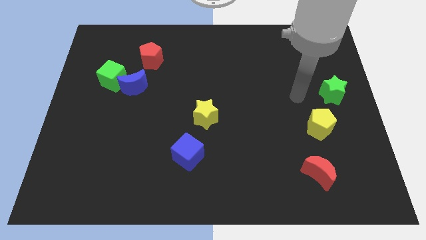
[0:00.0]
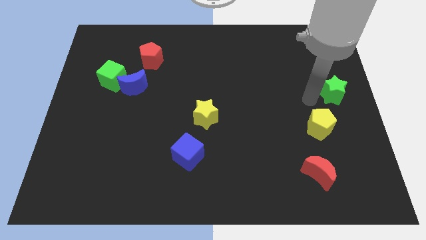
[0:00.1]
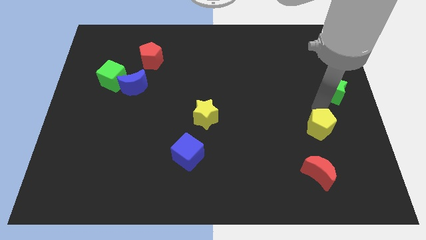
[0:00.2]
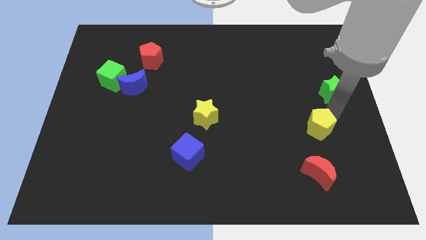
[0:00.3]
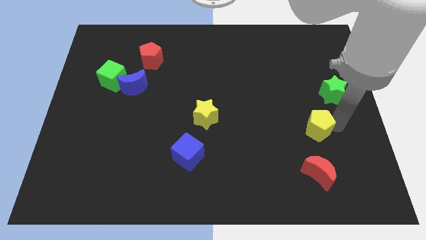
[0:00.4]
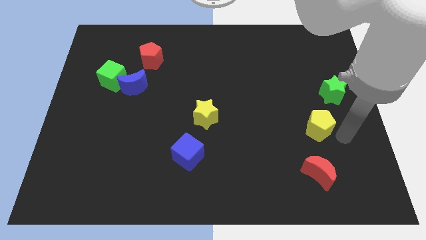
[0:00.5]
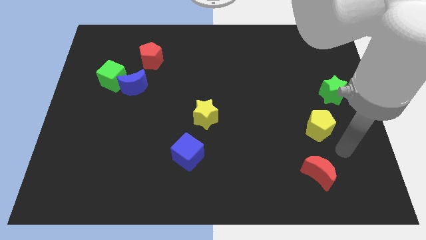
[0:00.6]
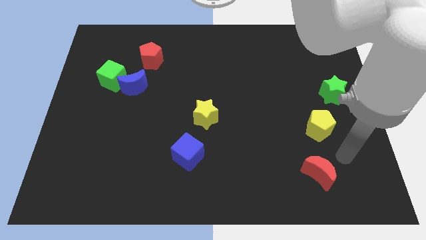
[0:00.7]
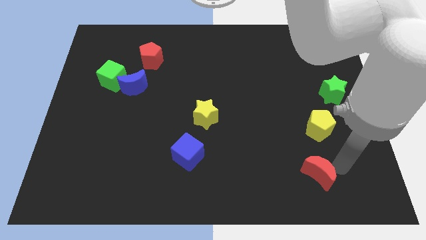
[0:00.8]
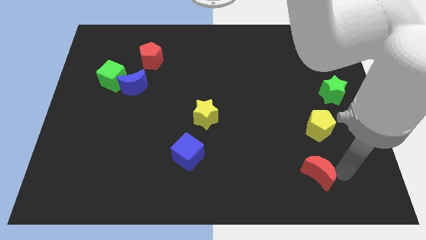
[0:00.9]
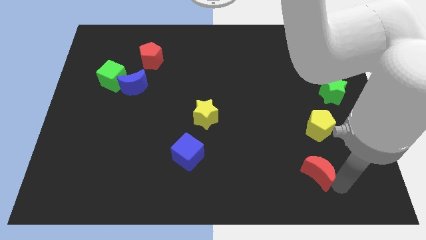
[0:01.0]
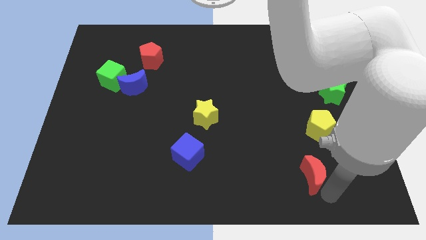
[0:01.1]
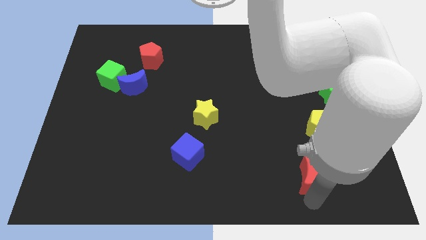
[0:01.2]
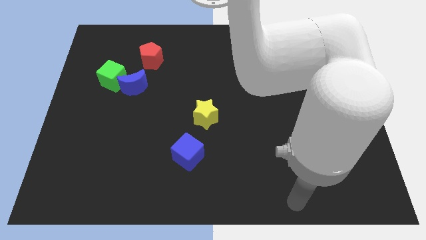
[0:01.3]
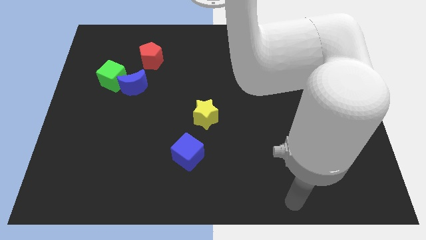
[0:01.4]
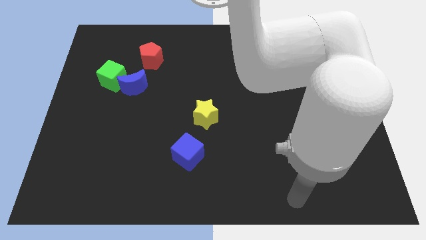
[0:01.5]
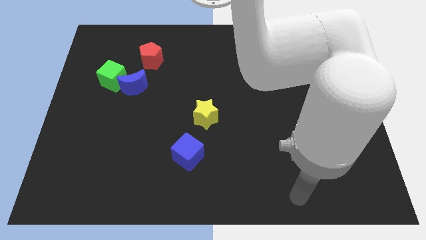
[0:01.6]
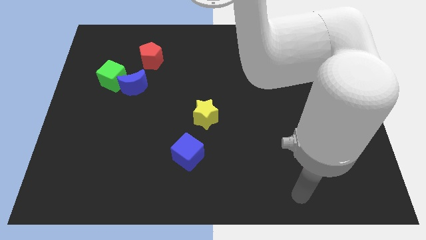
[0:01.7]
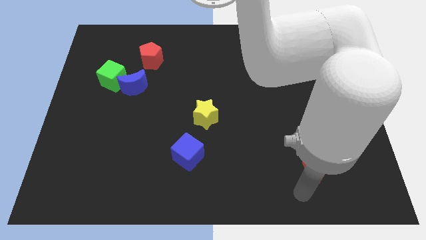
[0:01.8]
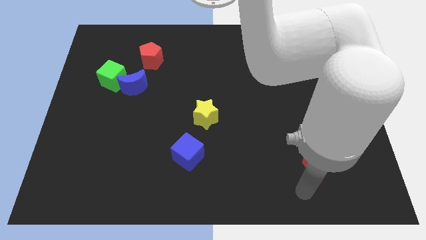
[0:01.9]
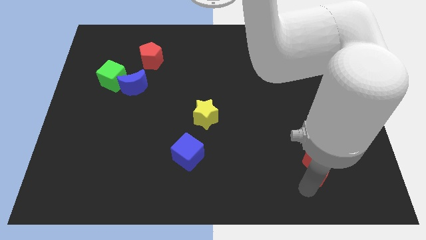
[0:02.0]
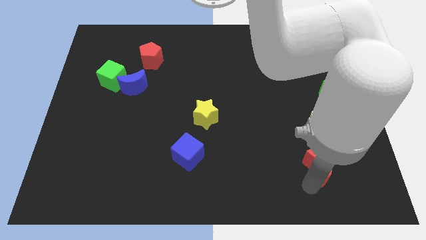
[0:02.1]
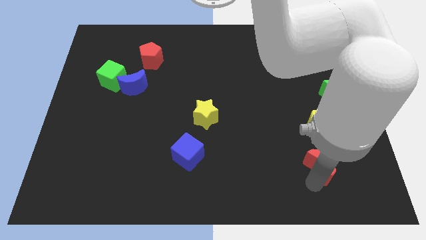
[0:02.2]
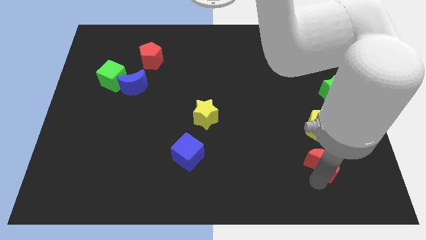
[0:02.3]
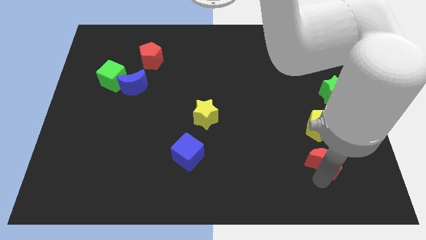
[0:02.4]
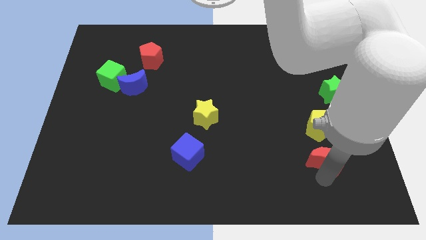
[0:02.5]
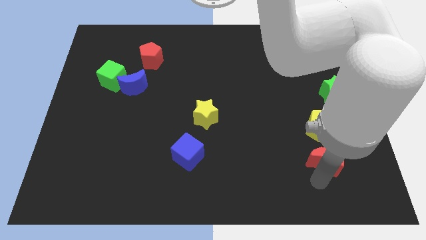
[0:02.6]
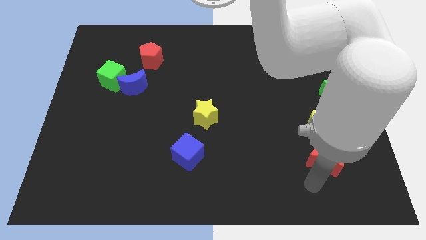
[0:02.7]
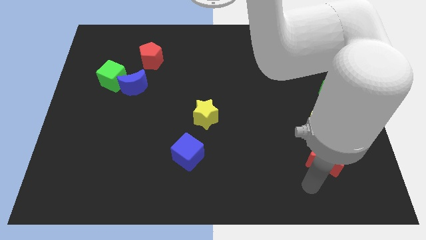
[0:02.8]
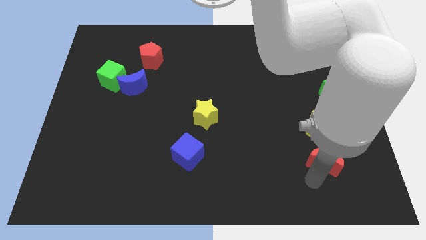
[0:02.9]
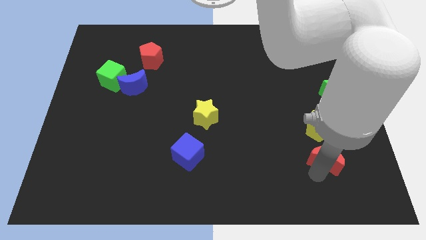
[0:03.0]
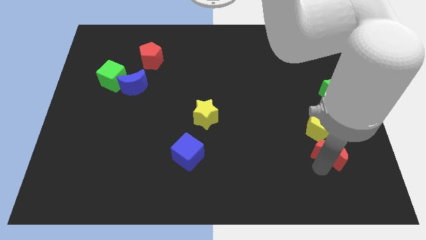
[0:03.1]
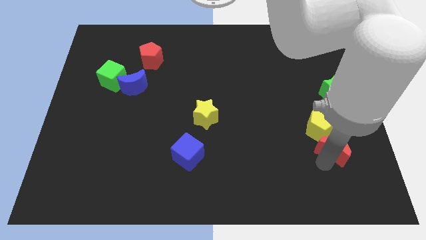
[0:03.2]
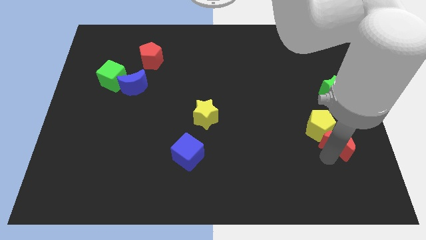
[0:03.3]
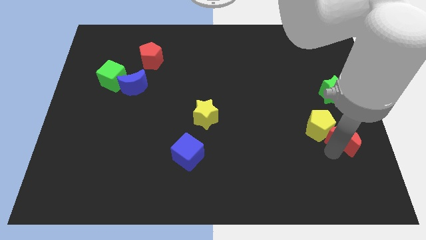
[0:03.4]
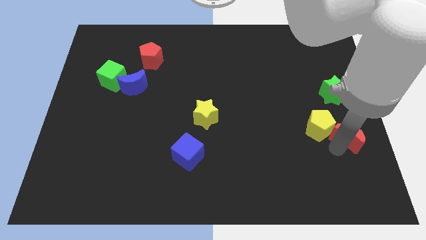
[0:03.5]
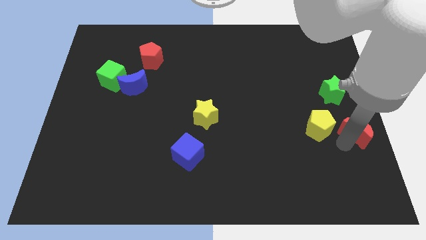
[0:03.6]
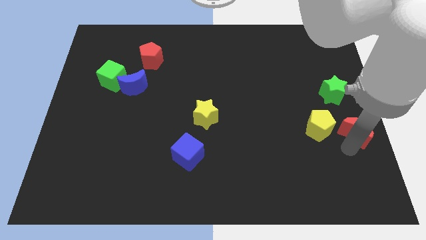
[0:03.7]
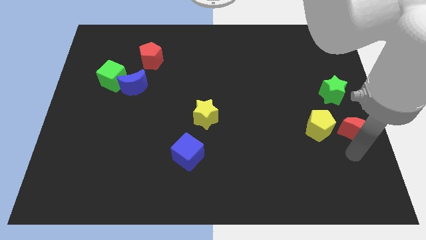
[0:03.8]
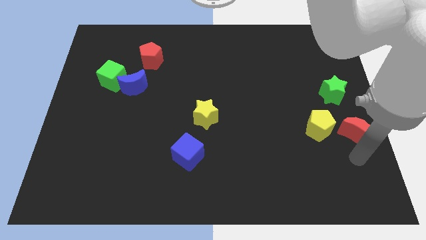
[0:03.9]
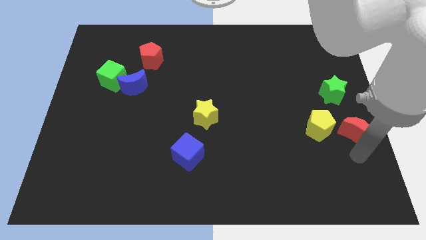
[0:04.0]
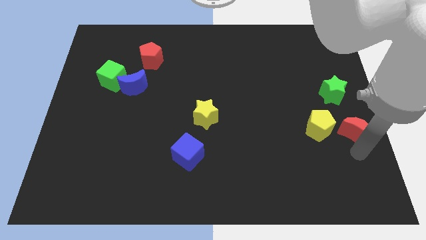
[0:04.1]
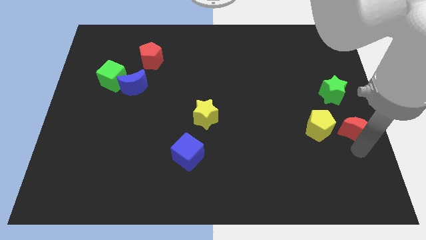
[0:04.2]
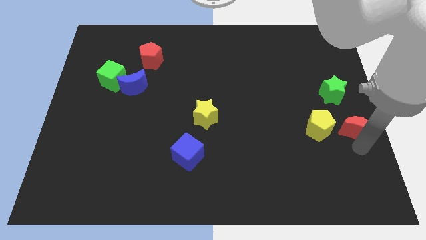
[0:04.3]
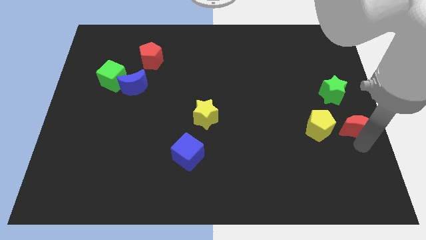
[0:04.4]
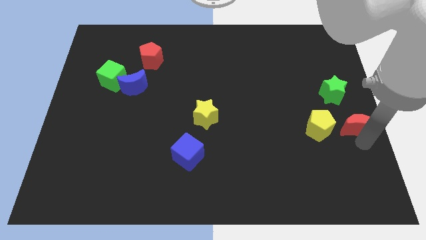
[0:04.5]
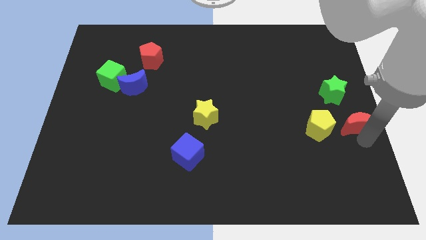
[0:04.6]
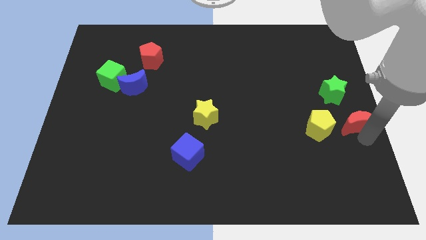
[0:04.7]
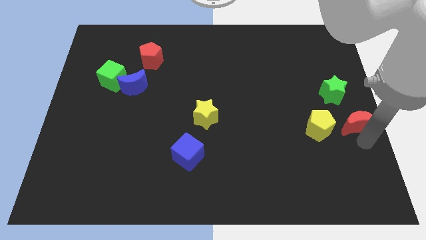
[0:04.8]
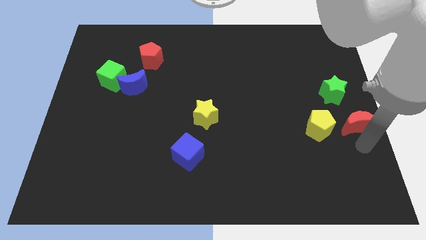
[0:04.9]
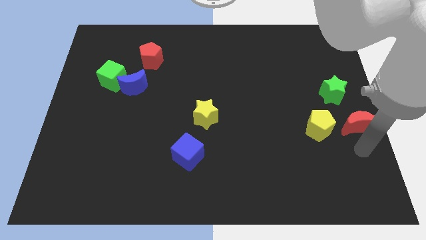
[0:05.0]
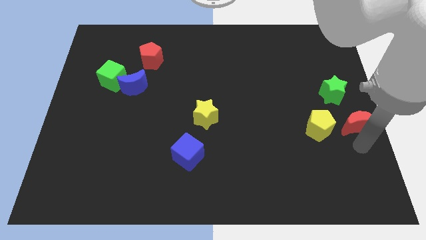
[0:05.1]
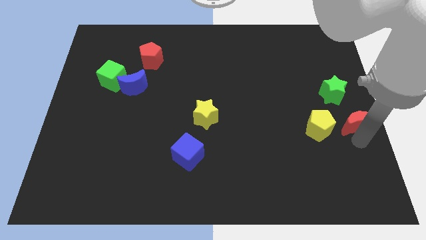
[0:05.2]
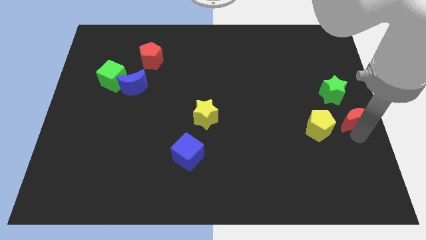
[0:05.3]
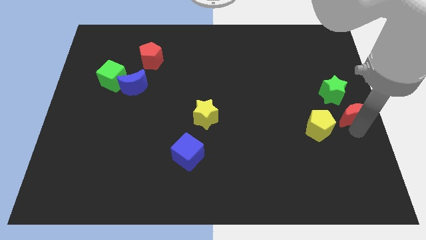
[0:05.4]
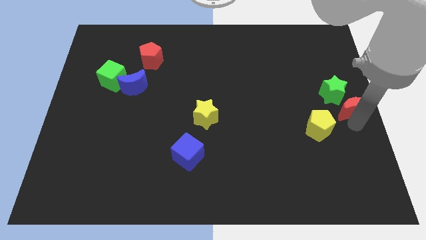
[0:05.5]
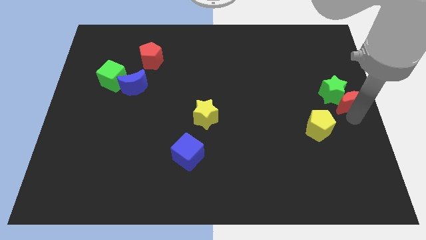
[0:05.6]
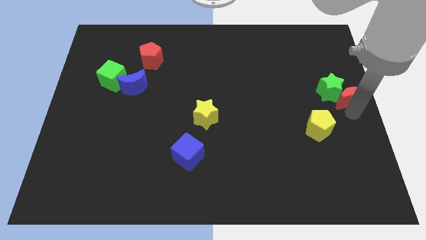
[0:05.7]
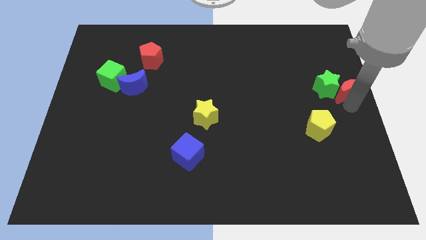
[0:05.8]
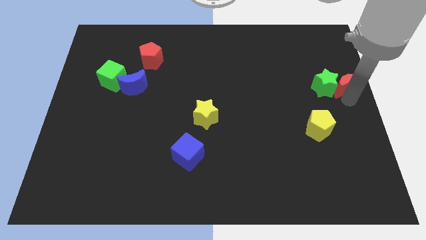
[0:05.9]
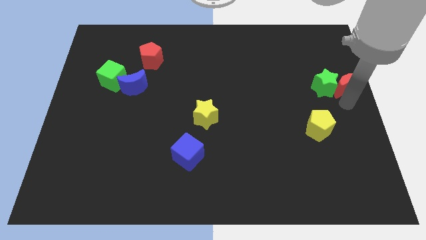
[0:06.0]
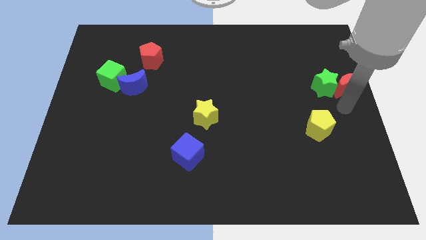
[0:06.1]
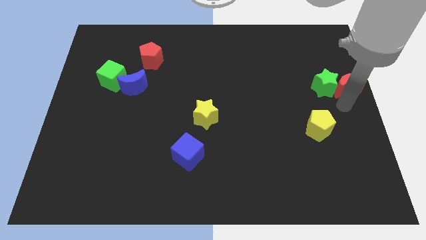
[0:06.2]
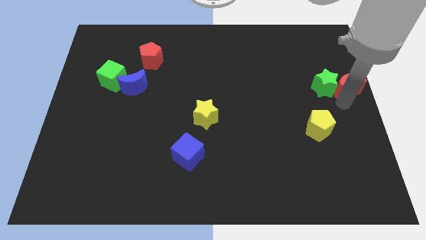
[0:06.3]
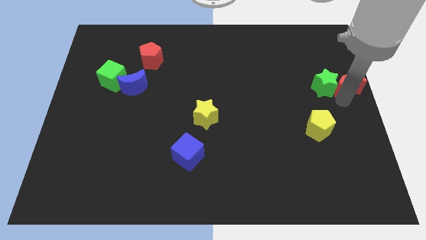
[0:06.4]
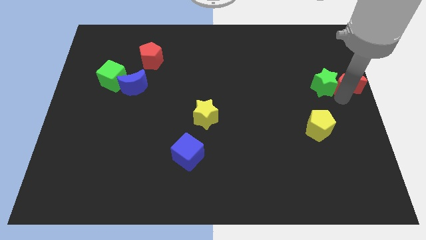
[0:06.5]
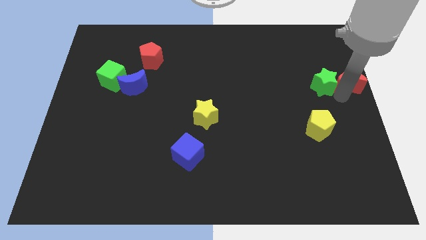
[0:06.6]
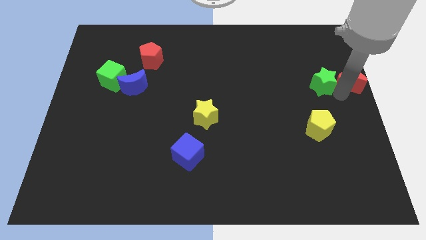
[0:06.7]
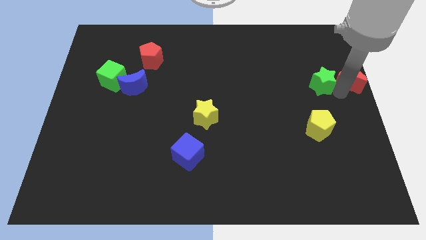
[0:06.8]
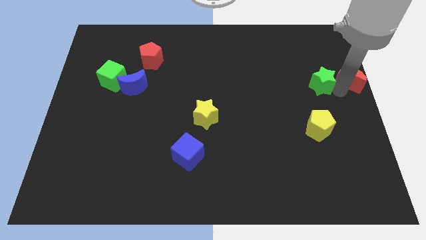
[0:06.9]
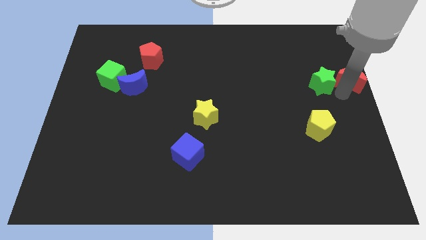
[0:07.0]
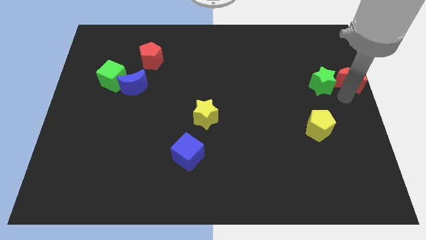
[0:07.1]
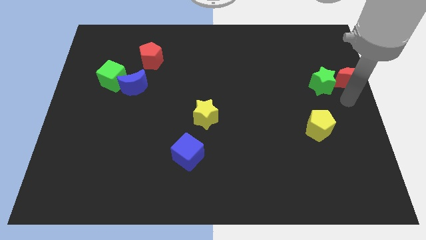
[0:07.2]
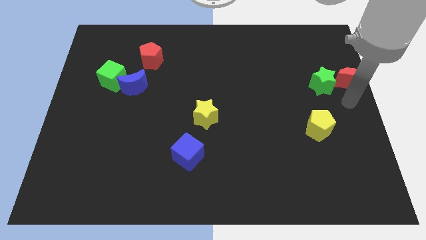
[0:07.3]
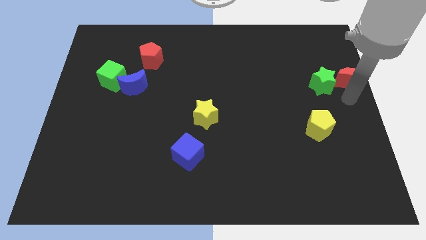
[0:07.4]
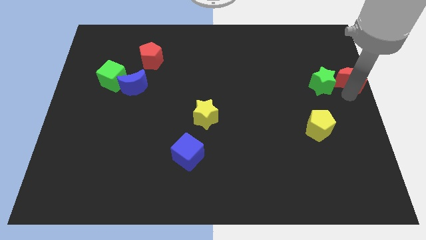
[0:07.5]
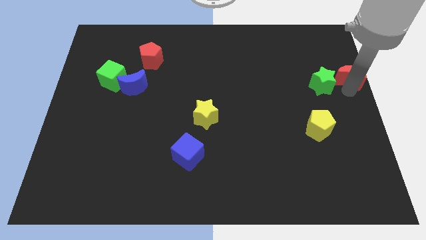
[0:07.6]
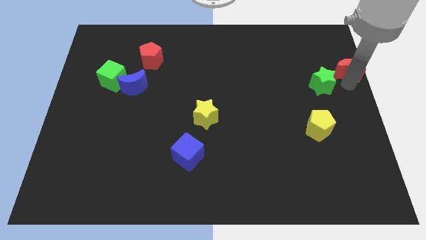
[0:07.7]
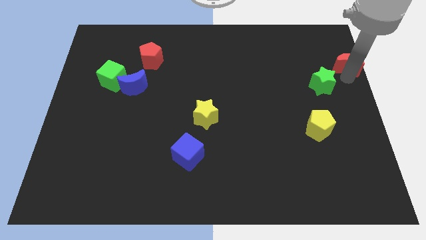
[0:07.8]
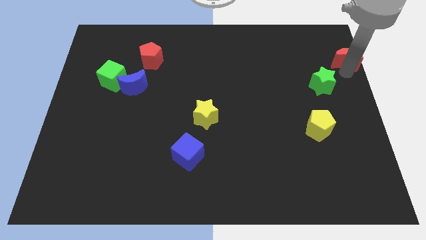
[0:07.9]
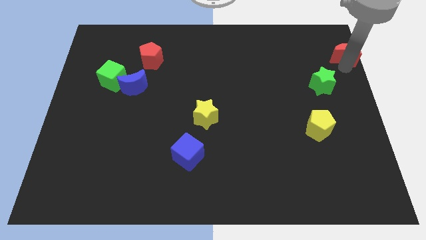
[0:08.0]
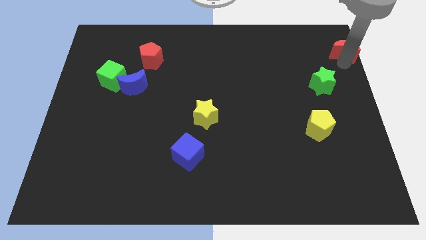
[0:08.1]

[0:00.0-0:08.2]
move the red moon to the top right of the board
